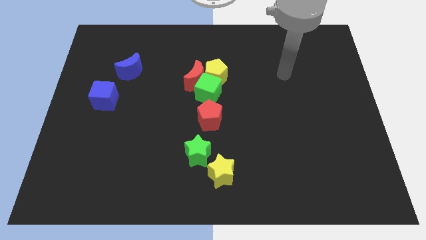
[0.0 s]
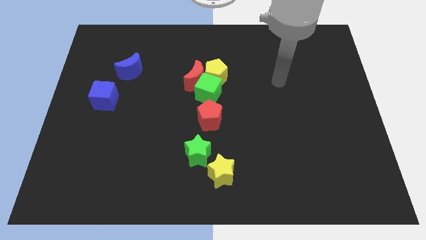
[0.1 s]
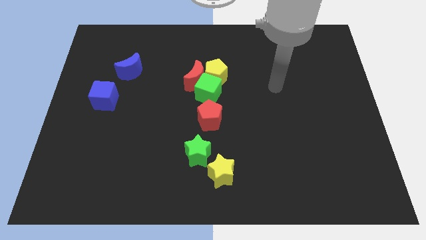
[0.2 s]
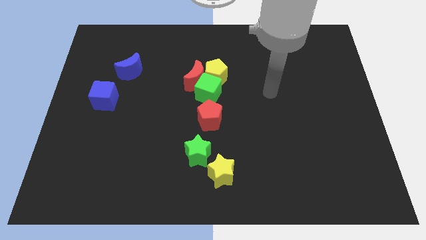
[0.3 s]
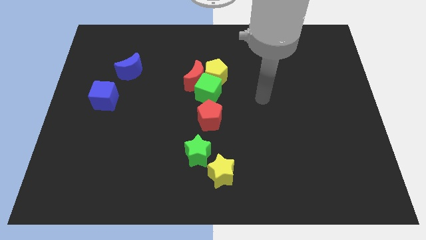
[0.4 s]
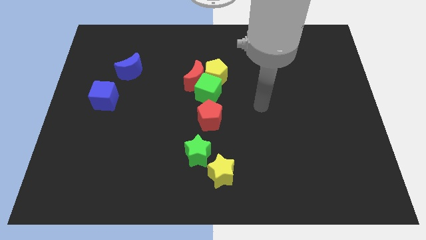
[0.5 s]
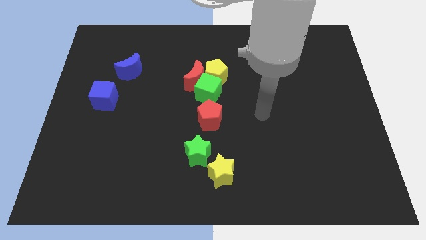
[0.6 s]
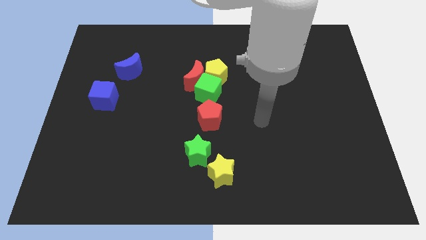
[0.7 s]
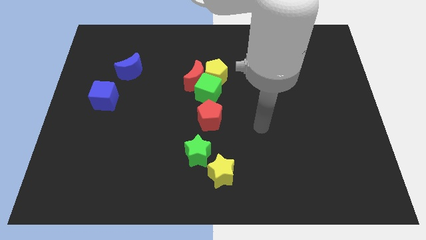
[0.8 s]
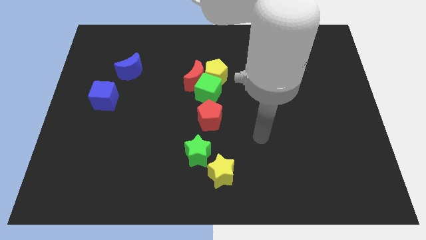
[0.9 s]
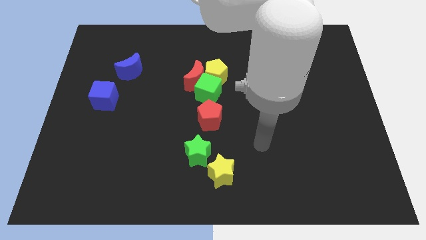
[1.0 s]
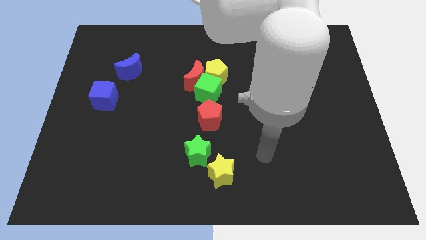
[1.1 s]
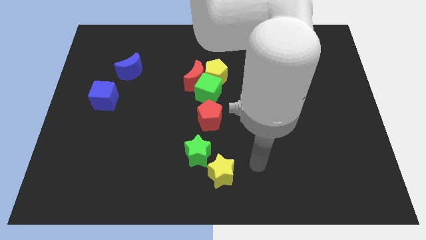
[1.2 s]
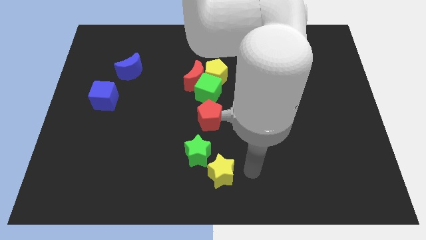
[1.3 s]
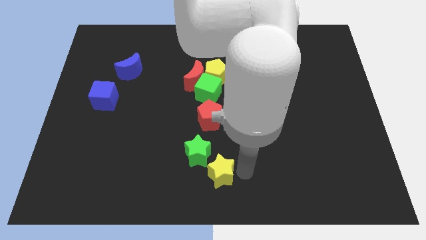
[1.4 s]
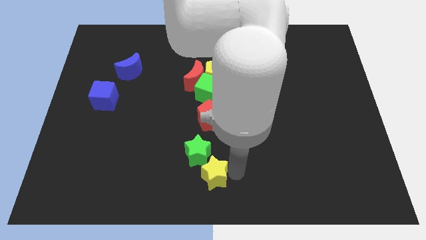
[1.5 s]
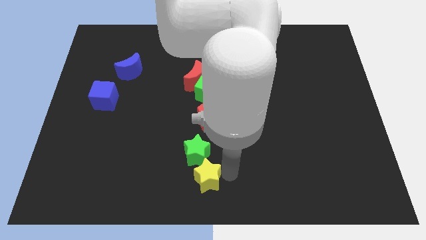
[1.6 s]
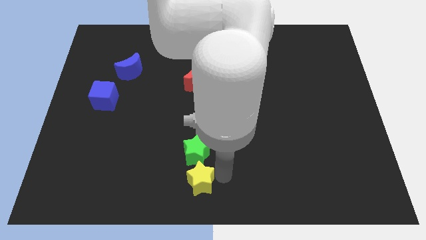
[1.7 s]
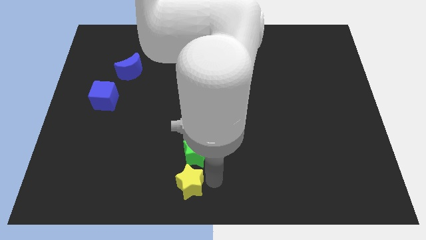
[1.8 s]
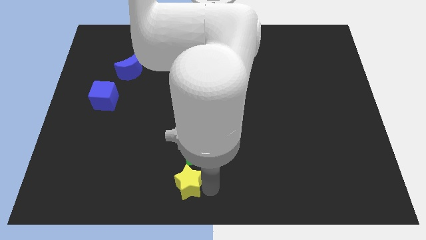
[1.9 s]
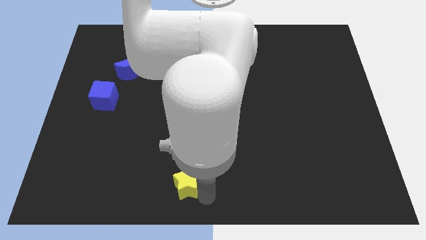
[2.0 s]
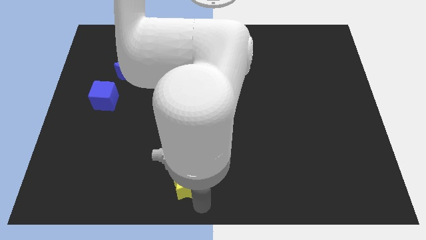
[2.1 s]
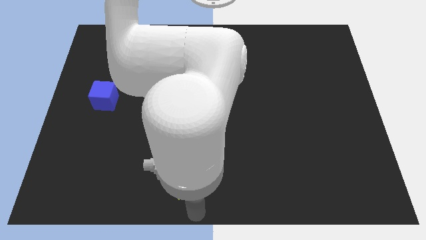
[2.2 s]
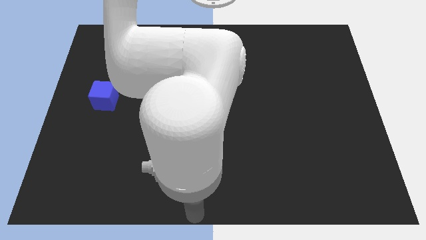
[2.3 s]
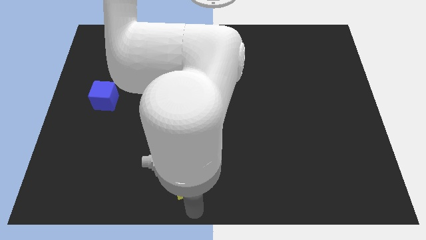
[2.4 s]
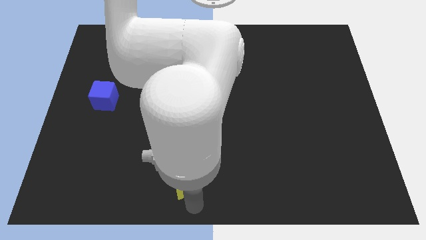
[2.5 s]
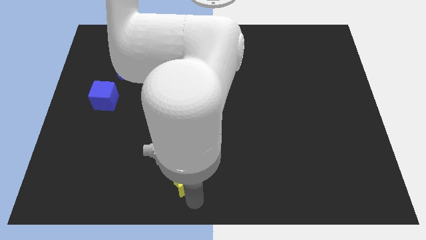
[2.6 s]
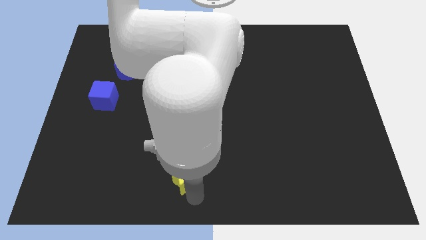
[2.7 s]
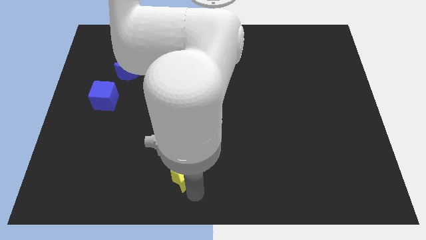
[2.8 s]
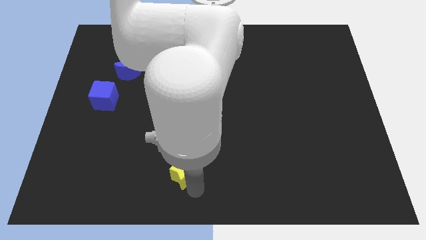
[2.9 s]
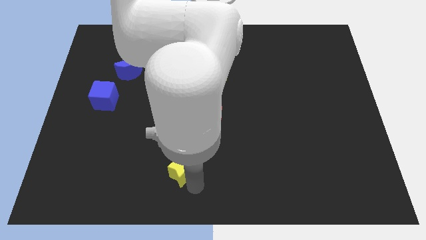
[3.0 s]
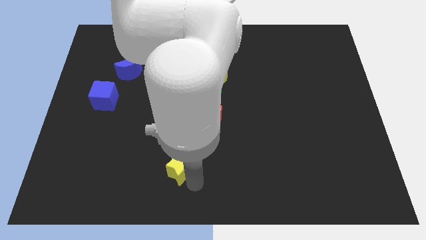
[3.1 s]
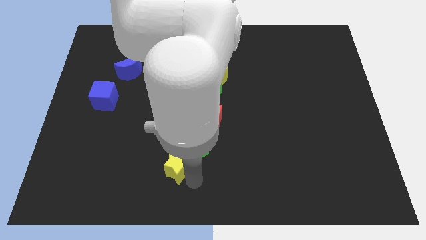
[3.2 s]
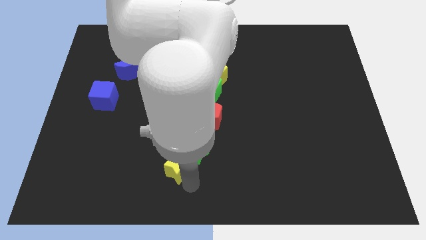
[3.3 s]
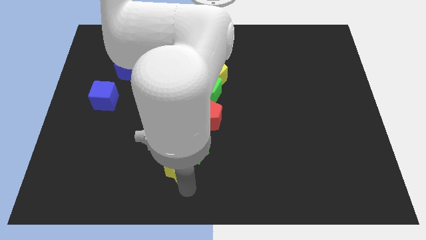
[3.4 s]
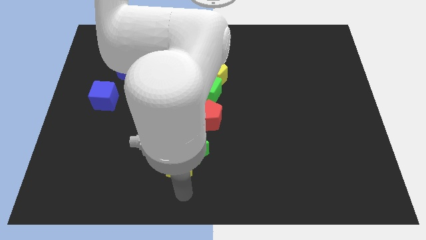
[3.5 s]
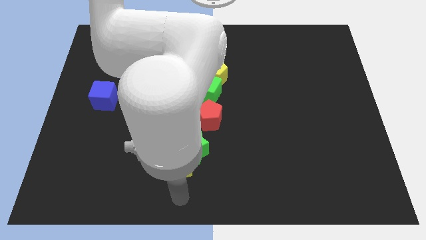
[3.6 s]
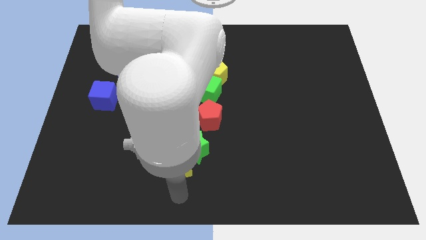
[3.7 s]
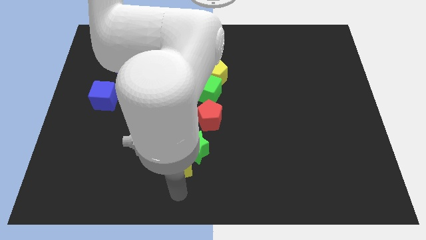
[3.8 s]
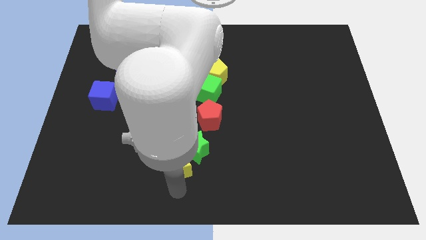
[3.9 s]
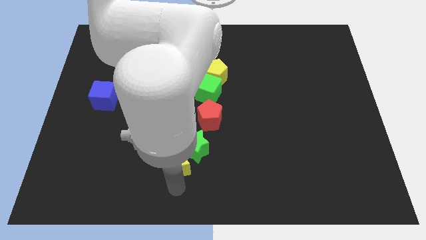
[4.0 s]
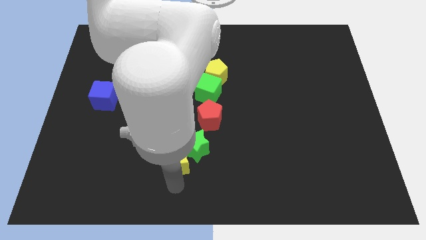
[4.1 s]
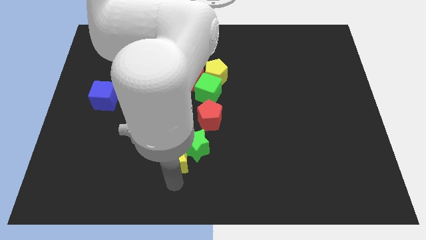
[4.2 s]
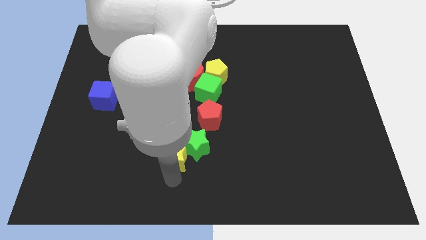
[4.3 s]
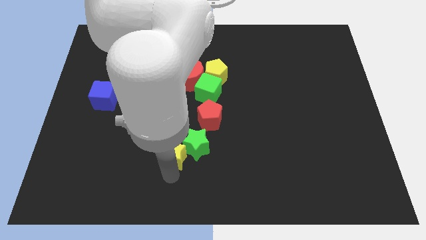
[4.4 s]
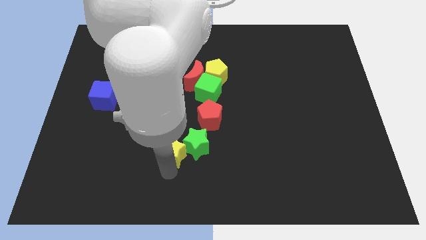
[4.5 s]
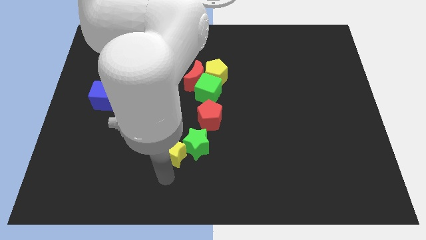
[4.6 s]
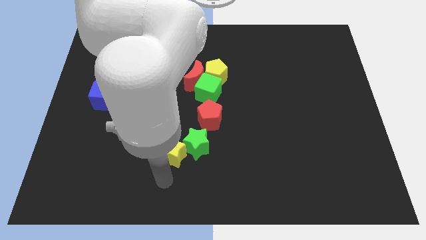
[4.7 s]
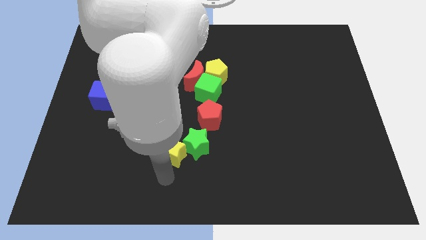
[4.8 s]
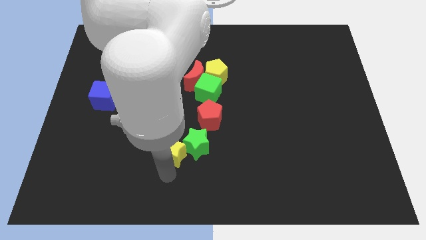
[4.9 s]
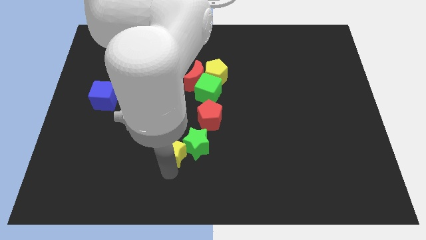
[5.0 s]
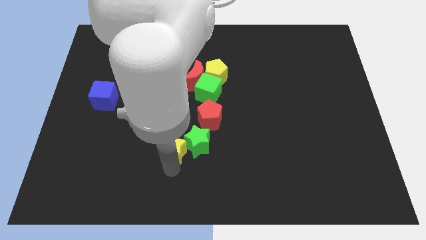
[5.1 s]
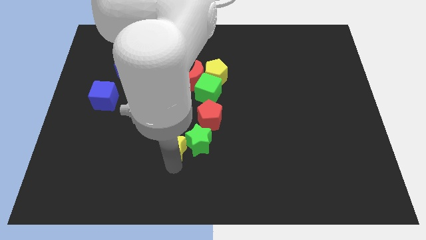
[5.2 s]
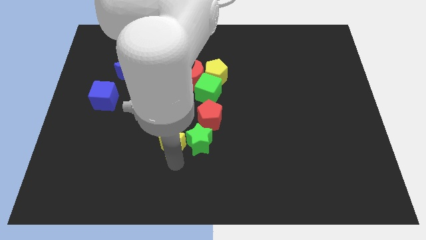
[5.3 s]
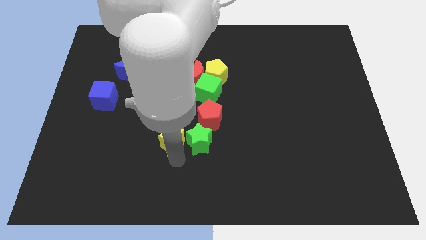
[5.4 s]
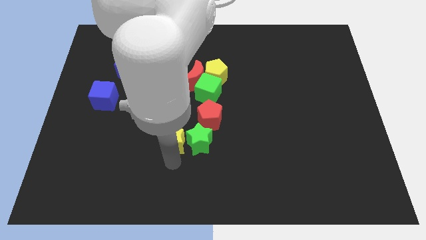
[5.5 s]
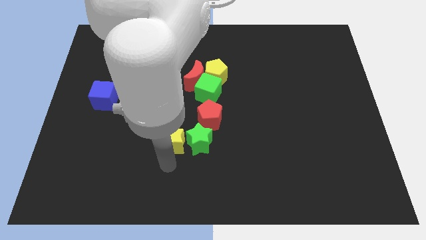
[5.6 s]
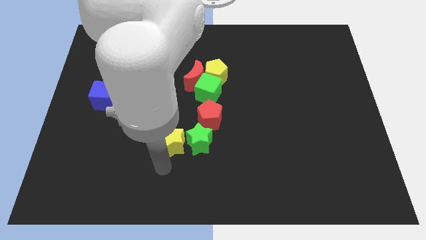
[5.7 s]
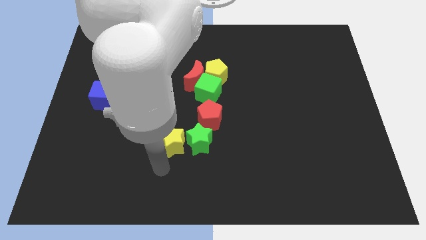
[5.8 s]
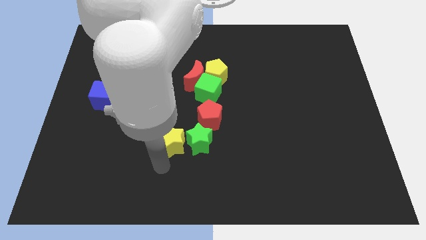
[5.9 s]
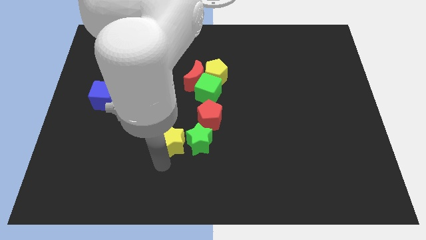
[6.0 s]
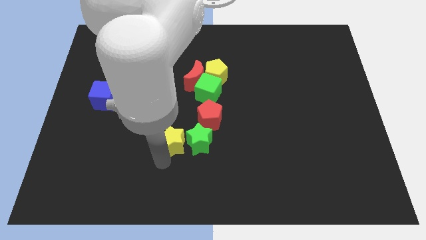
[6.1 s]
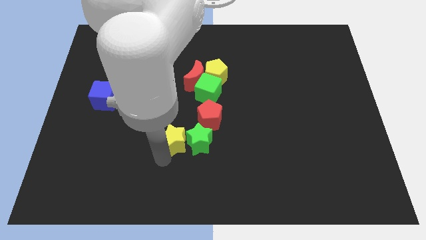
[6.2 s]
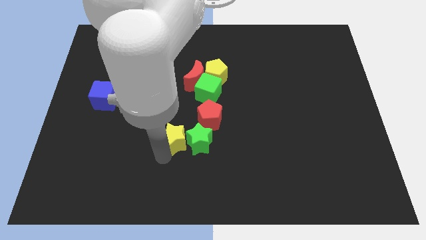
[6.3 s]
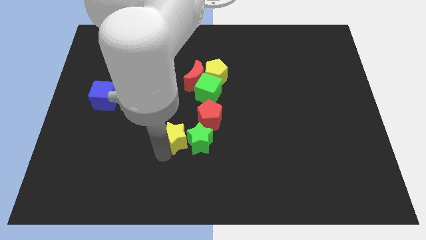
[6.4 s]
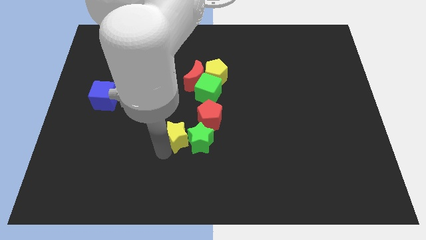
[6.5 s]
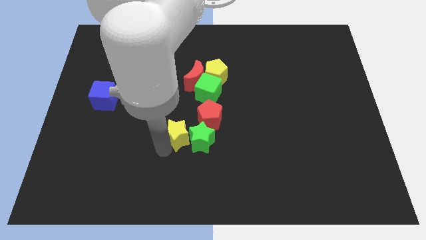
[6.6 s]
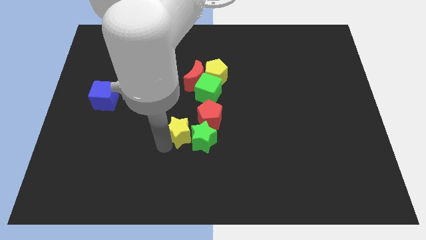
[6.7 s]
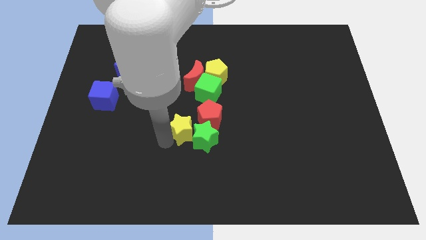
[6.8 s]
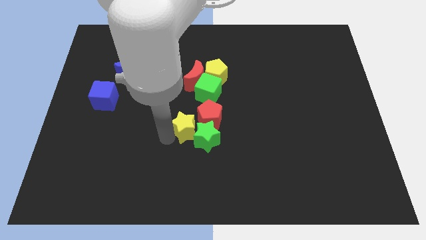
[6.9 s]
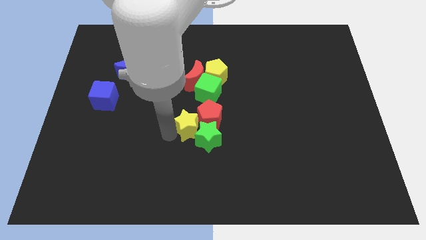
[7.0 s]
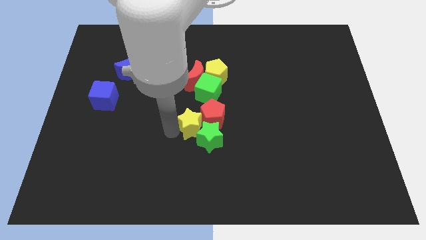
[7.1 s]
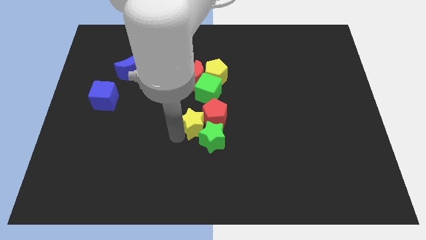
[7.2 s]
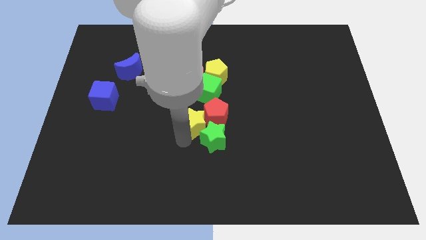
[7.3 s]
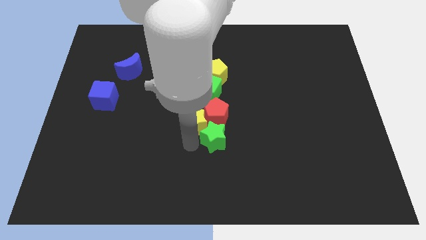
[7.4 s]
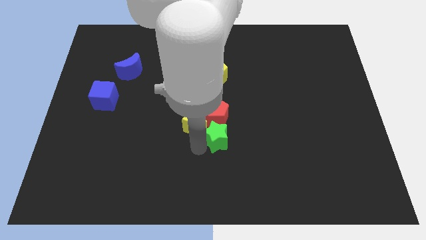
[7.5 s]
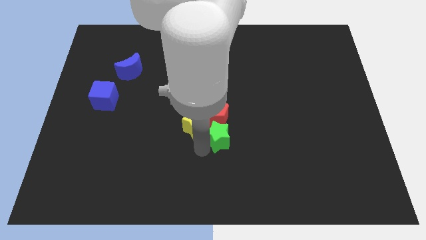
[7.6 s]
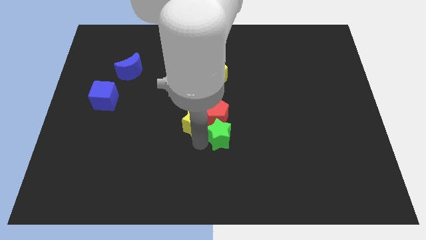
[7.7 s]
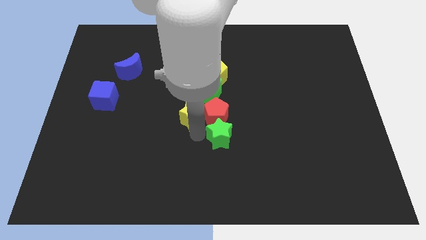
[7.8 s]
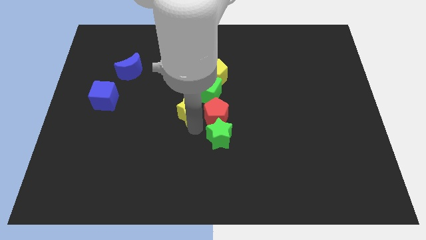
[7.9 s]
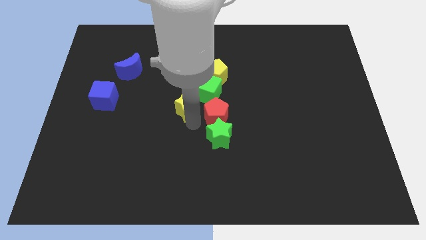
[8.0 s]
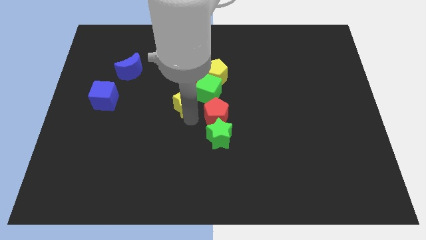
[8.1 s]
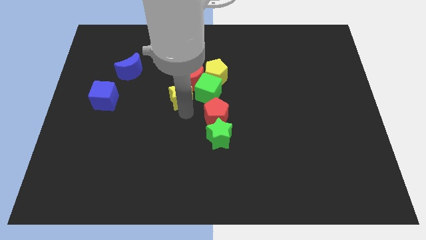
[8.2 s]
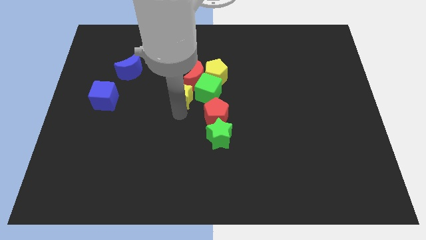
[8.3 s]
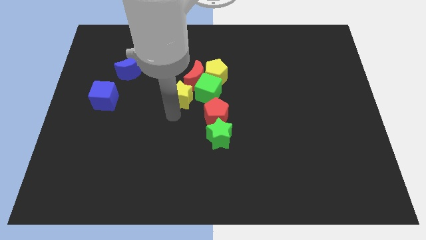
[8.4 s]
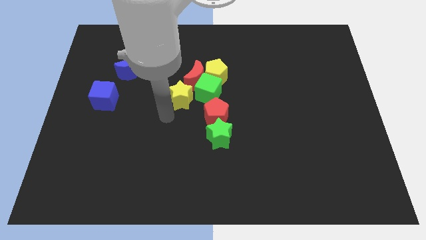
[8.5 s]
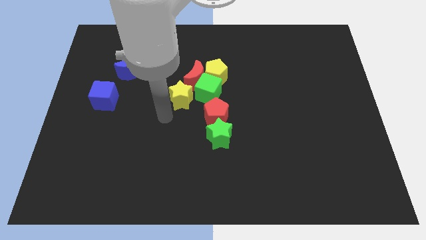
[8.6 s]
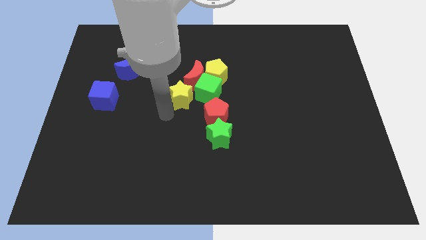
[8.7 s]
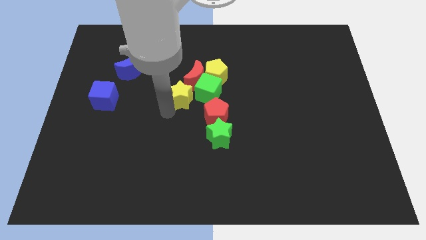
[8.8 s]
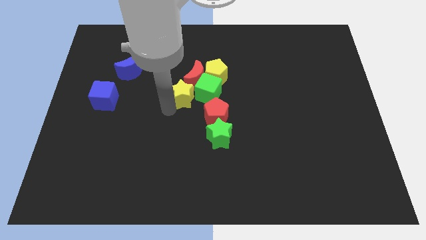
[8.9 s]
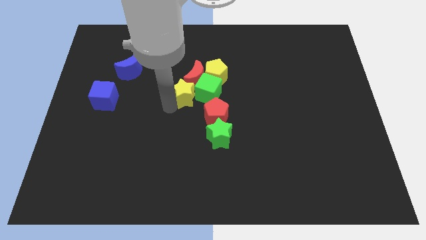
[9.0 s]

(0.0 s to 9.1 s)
slide the yellow star to the red moon
